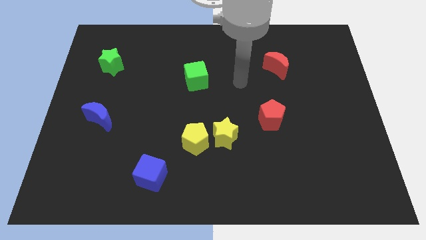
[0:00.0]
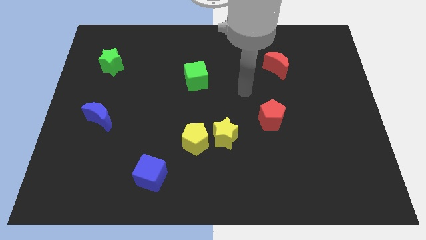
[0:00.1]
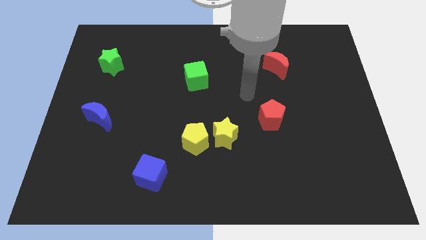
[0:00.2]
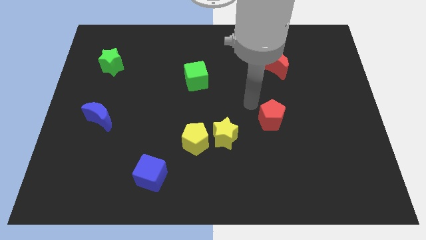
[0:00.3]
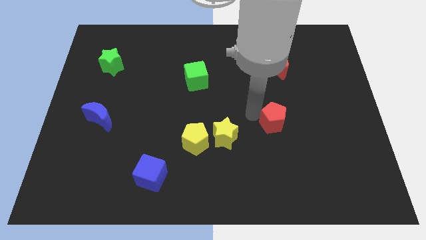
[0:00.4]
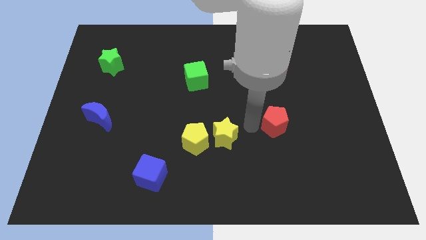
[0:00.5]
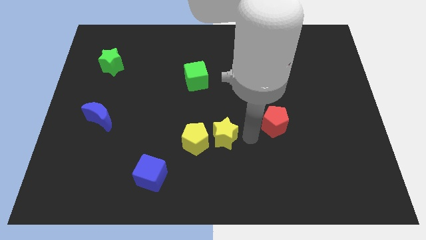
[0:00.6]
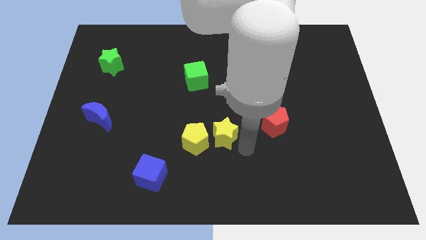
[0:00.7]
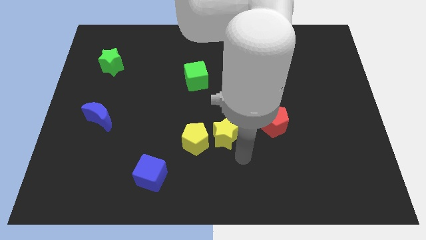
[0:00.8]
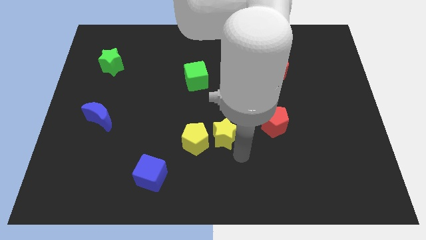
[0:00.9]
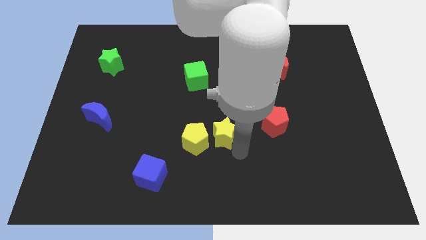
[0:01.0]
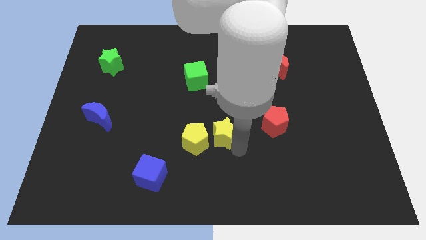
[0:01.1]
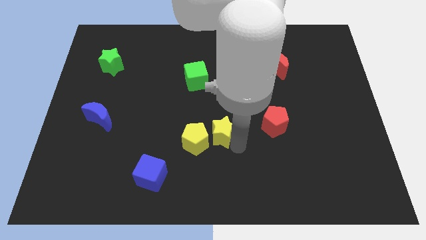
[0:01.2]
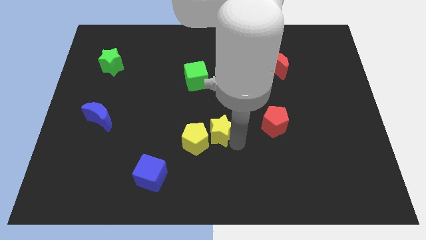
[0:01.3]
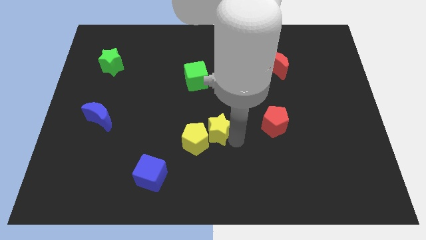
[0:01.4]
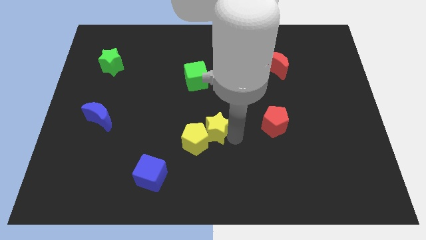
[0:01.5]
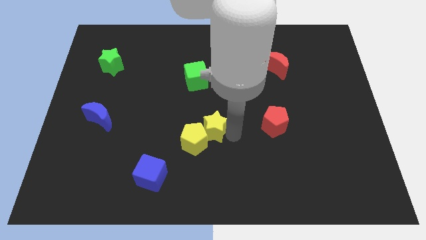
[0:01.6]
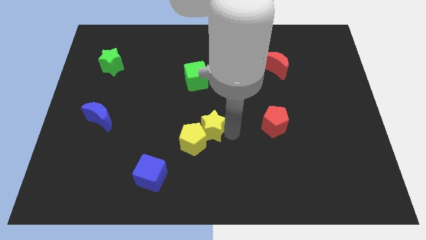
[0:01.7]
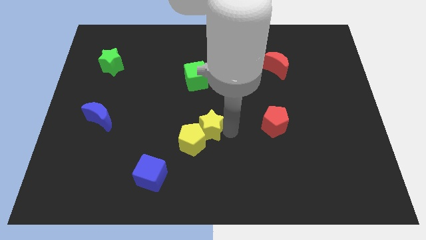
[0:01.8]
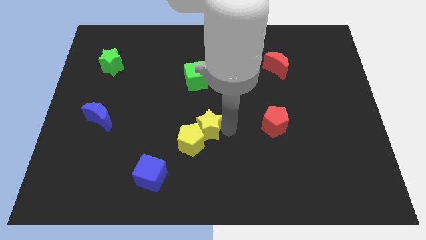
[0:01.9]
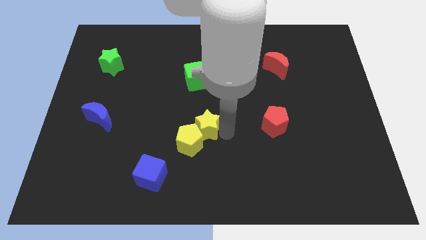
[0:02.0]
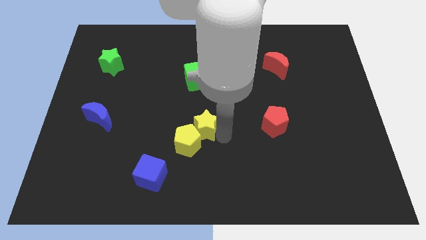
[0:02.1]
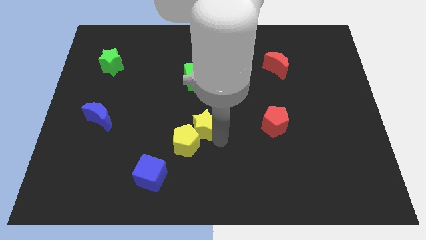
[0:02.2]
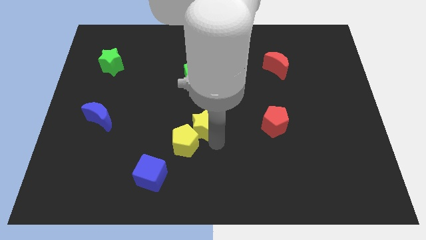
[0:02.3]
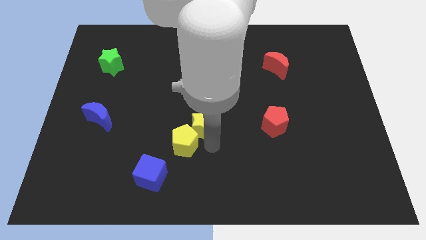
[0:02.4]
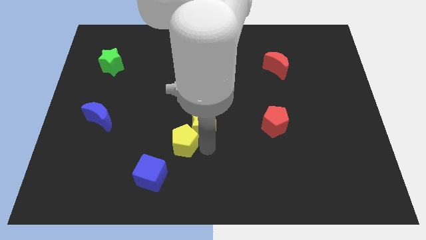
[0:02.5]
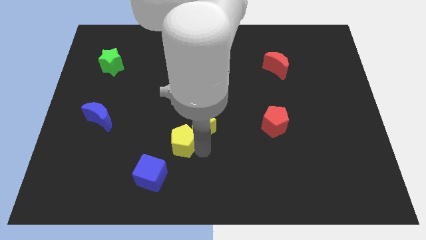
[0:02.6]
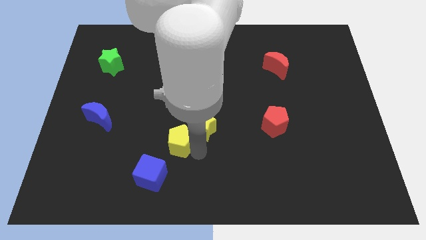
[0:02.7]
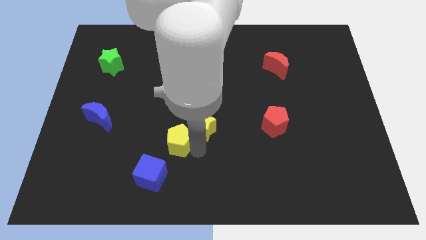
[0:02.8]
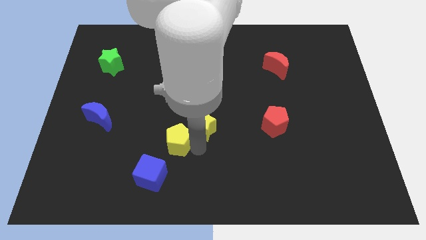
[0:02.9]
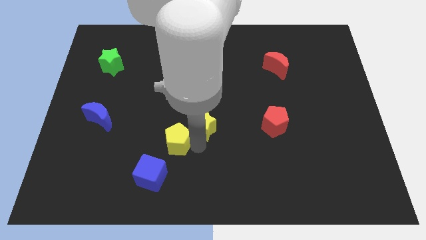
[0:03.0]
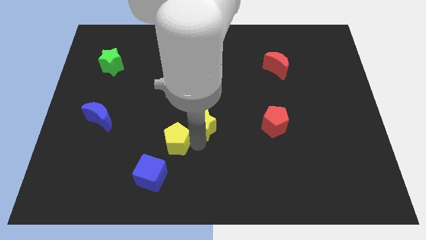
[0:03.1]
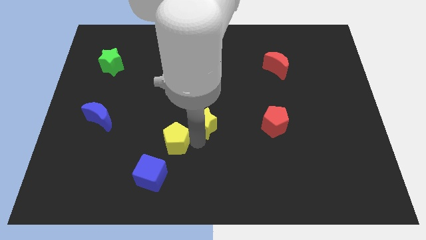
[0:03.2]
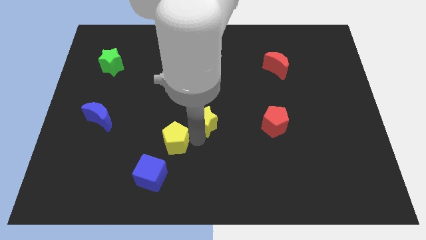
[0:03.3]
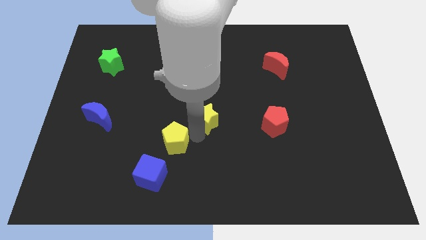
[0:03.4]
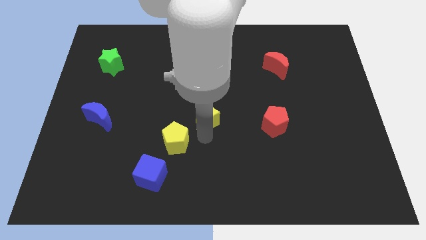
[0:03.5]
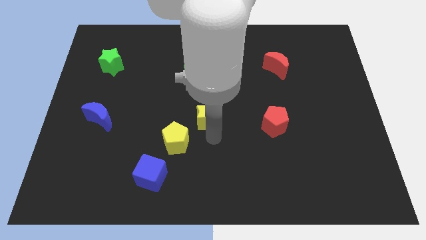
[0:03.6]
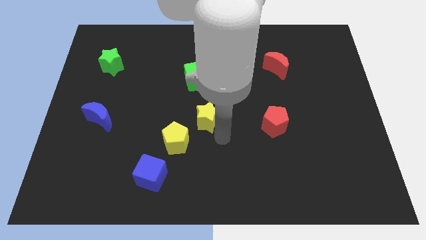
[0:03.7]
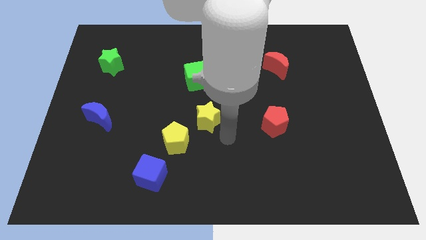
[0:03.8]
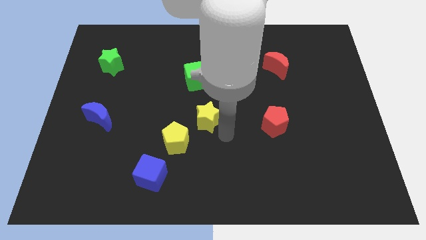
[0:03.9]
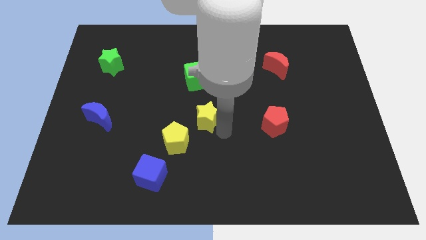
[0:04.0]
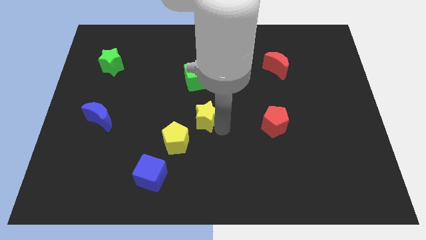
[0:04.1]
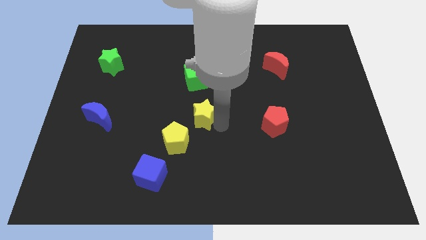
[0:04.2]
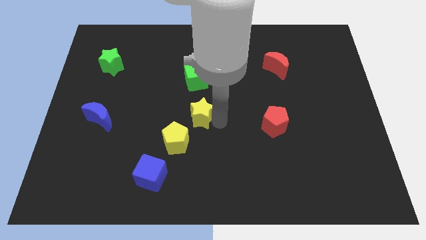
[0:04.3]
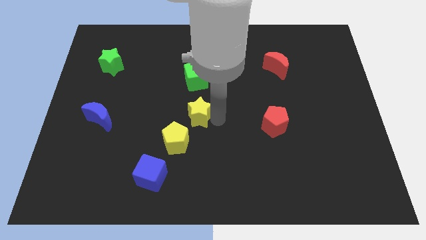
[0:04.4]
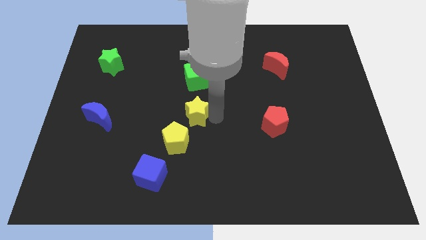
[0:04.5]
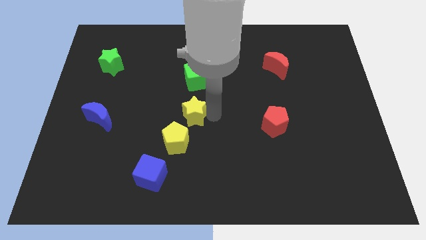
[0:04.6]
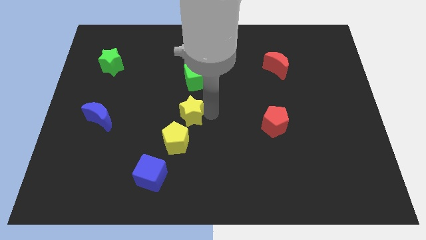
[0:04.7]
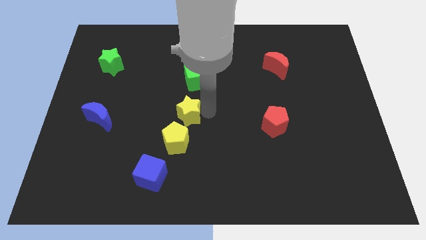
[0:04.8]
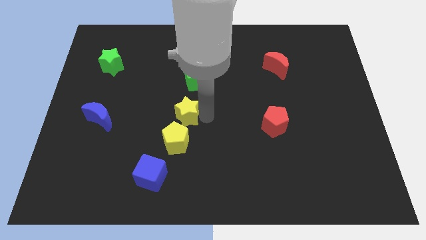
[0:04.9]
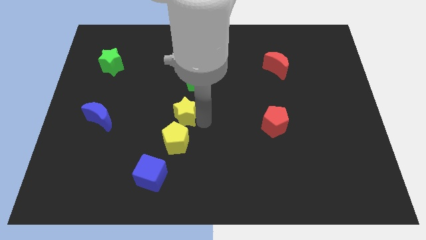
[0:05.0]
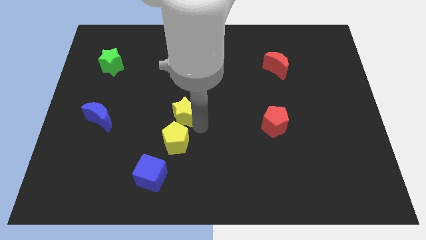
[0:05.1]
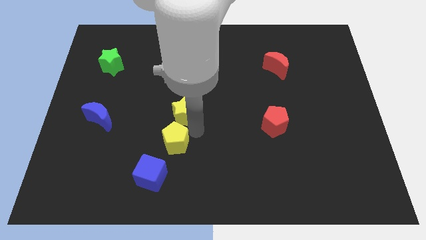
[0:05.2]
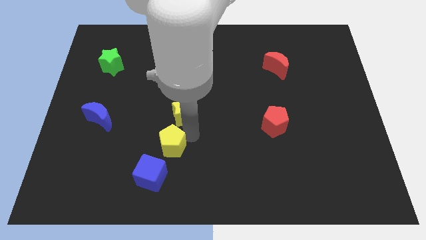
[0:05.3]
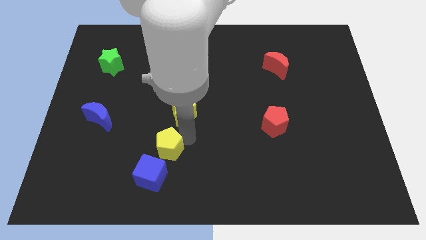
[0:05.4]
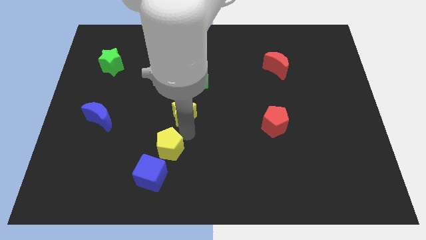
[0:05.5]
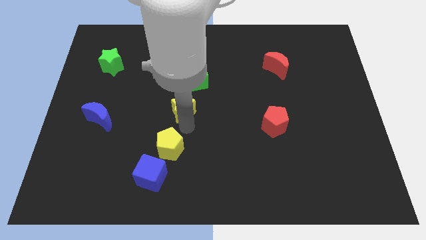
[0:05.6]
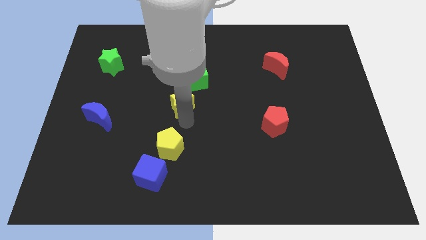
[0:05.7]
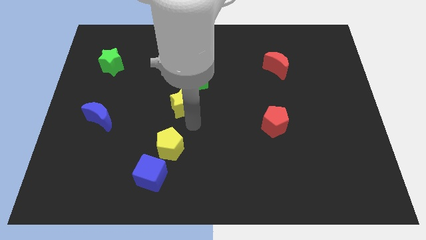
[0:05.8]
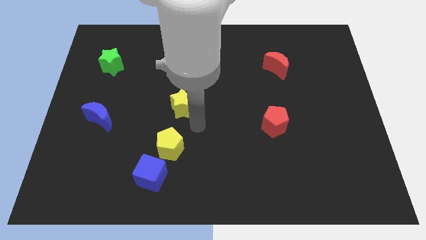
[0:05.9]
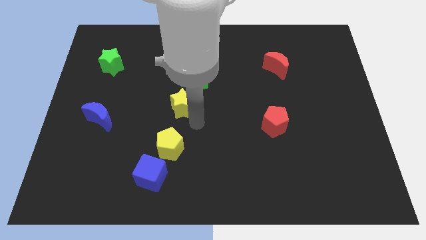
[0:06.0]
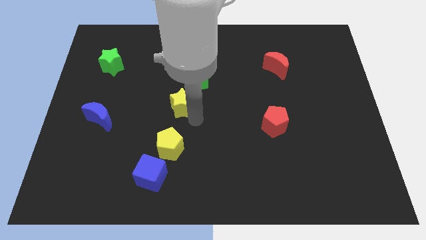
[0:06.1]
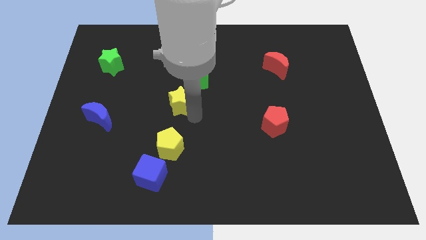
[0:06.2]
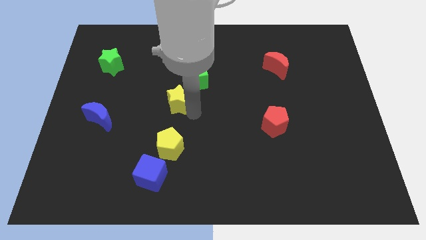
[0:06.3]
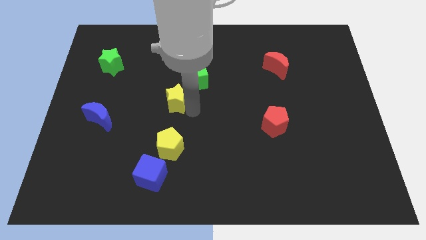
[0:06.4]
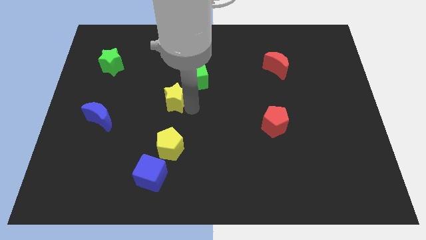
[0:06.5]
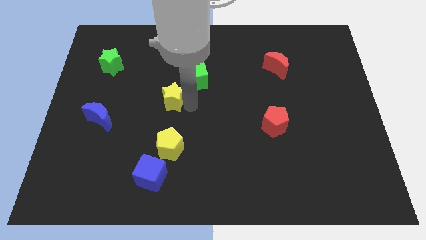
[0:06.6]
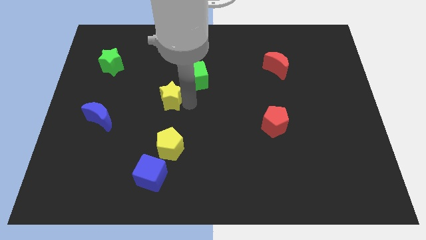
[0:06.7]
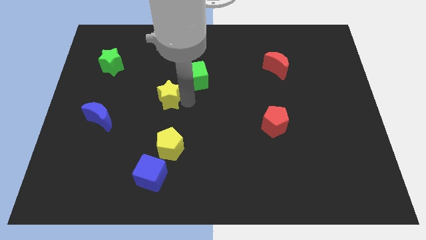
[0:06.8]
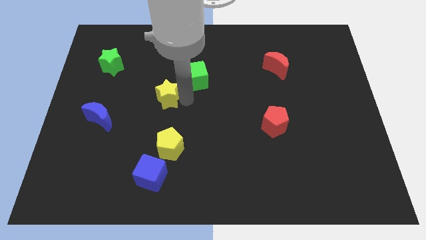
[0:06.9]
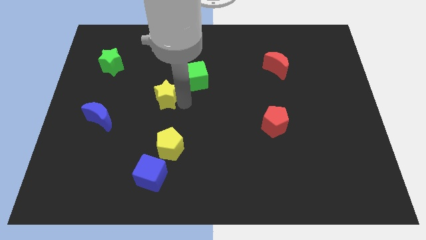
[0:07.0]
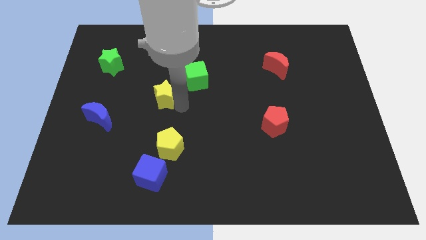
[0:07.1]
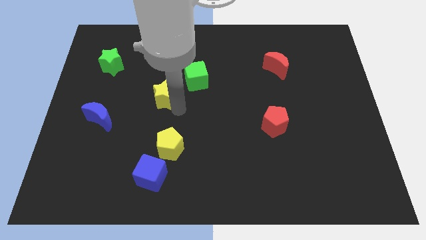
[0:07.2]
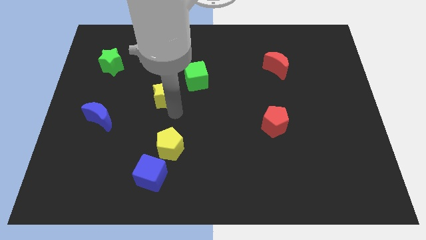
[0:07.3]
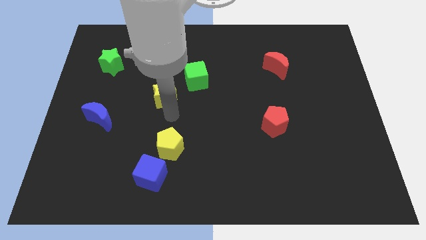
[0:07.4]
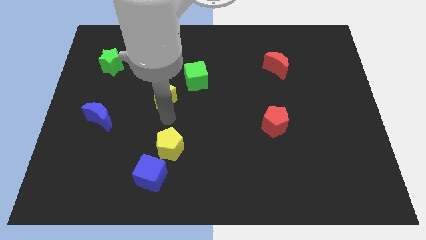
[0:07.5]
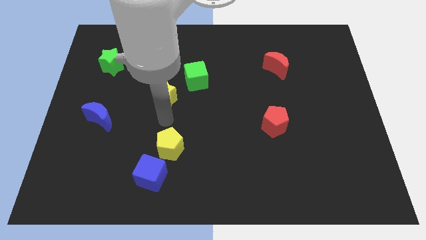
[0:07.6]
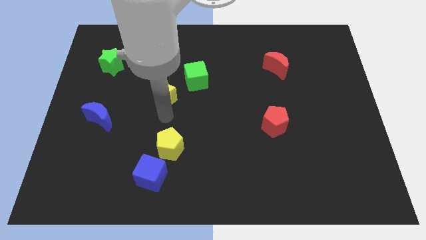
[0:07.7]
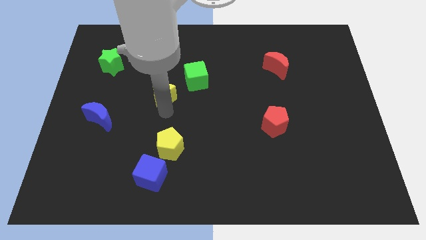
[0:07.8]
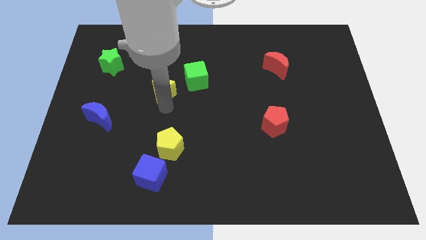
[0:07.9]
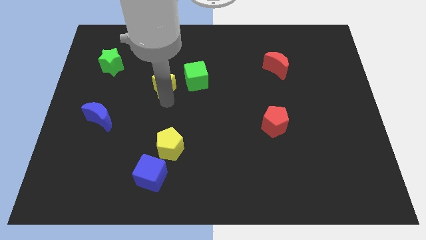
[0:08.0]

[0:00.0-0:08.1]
move the yellow star diagonally upwards and left
